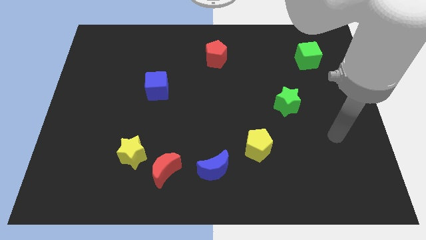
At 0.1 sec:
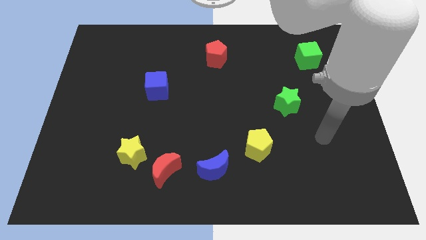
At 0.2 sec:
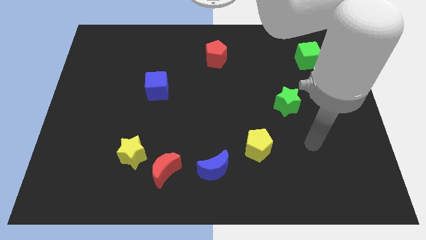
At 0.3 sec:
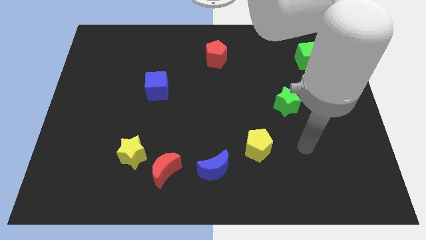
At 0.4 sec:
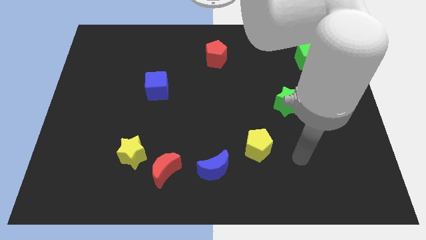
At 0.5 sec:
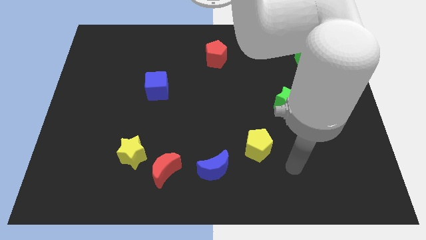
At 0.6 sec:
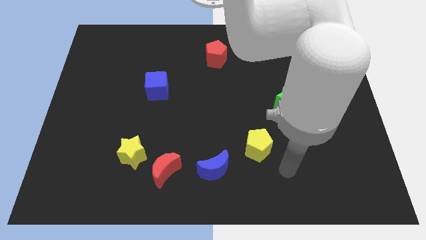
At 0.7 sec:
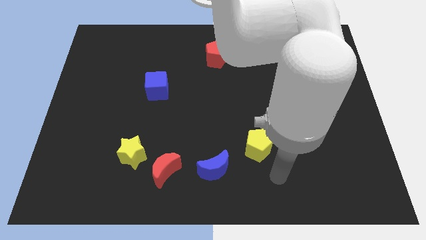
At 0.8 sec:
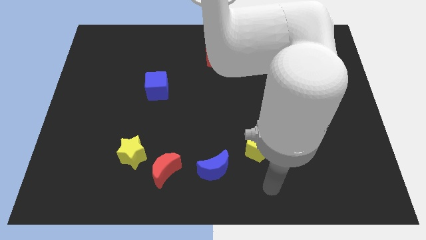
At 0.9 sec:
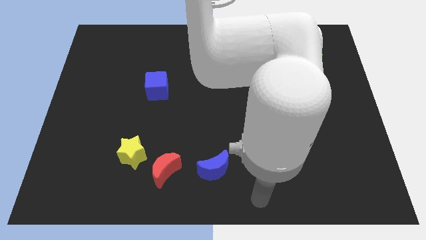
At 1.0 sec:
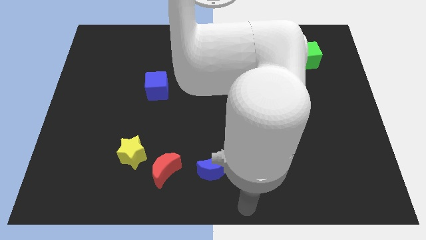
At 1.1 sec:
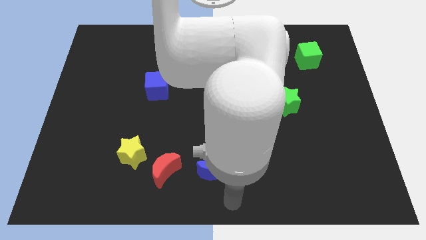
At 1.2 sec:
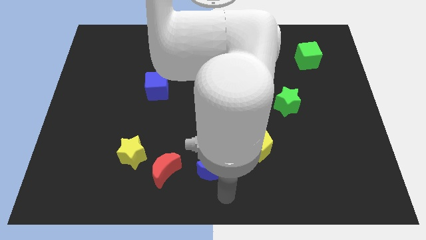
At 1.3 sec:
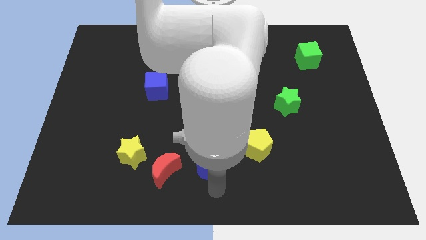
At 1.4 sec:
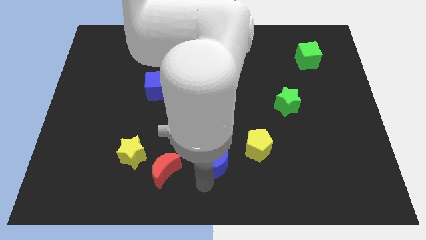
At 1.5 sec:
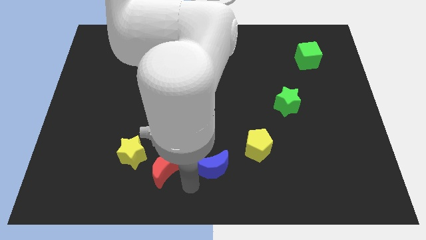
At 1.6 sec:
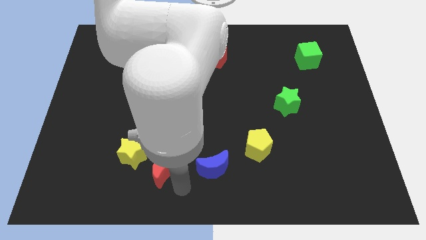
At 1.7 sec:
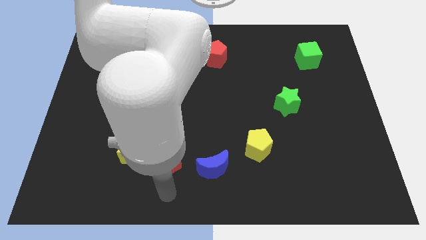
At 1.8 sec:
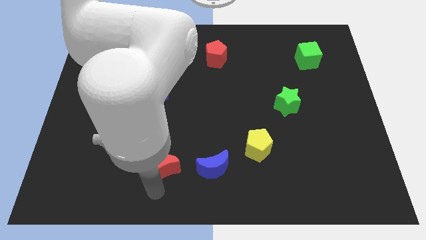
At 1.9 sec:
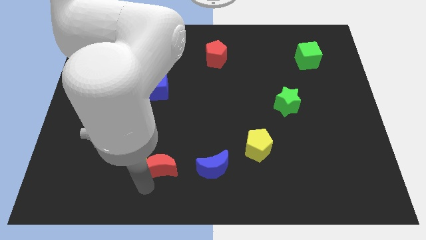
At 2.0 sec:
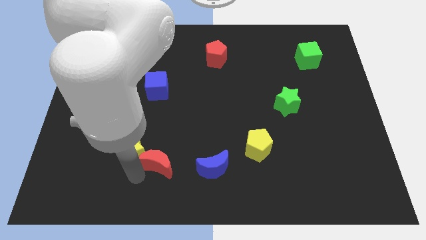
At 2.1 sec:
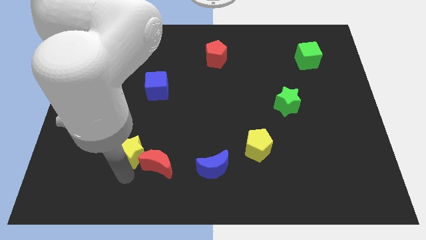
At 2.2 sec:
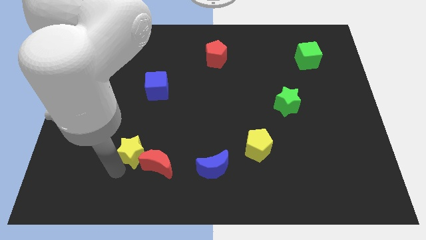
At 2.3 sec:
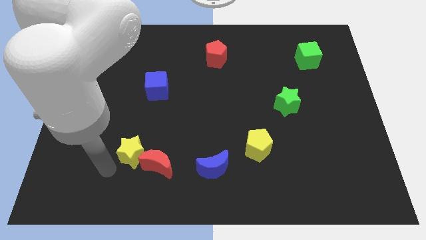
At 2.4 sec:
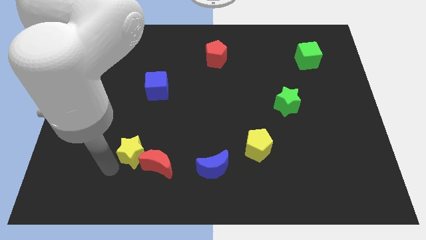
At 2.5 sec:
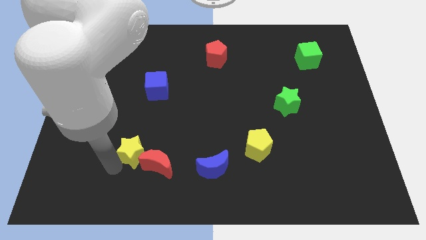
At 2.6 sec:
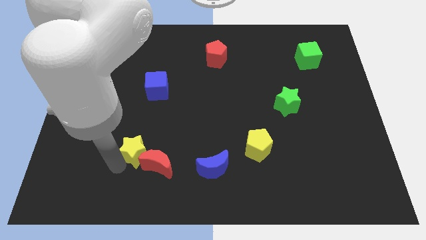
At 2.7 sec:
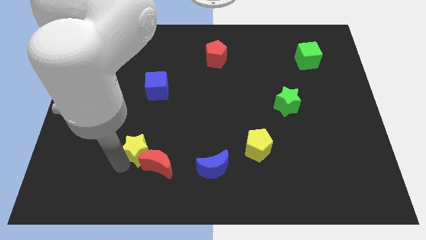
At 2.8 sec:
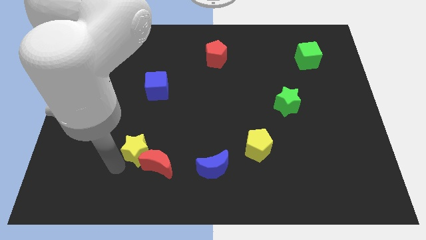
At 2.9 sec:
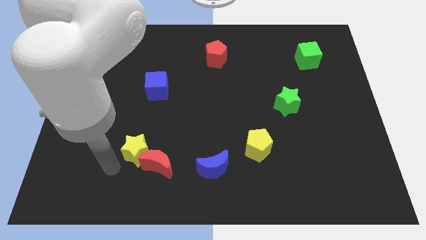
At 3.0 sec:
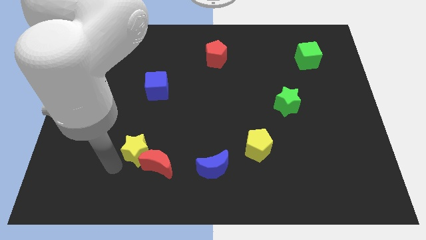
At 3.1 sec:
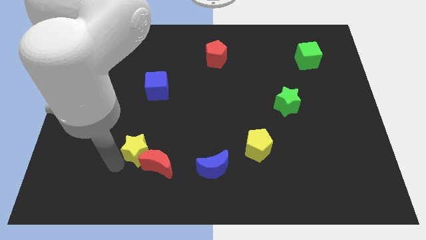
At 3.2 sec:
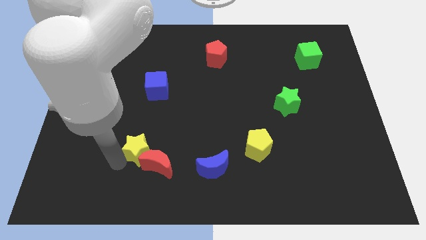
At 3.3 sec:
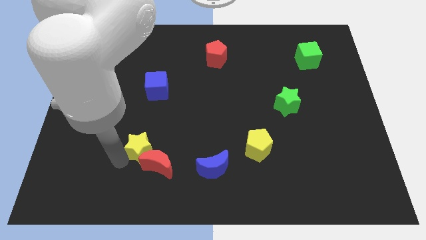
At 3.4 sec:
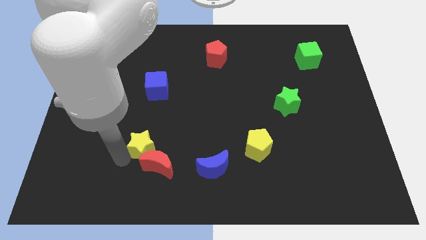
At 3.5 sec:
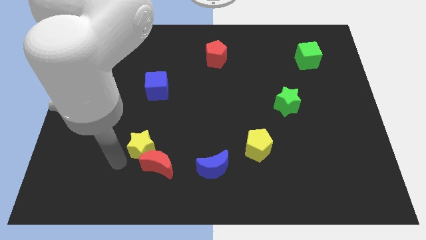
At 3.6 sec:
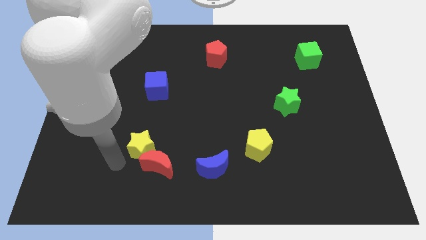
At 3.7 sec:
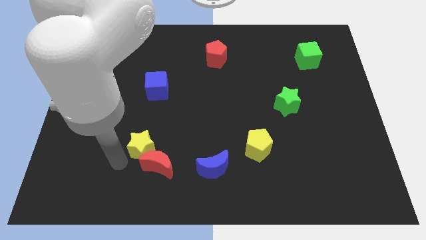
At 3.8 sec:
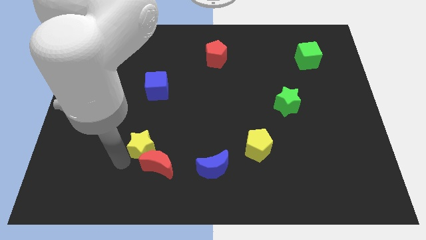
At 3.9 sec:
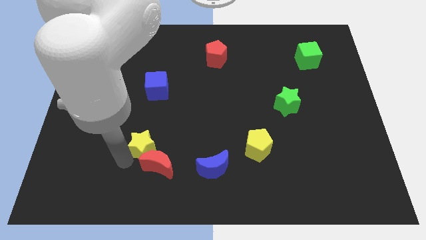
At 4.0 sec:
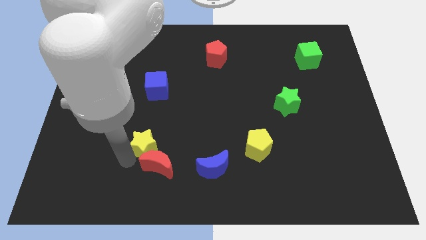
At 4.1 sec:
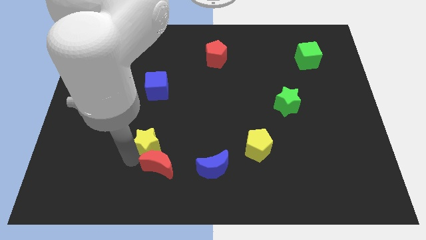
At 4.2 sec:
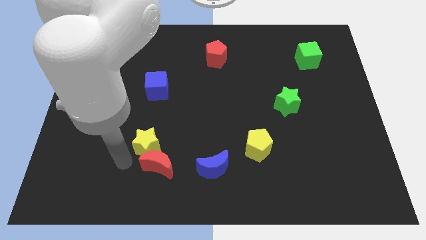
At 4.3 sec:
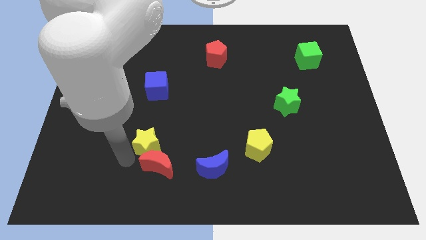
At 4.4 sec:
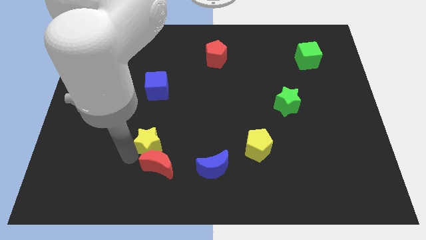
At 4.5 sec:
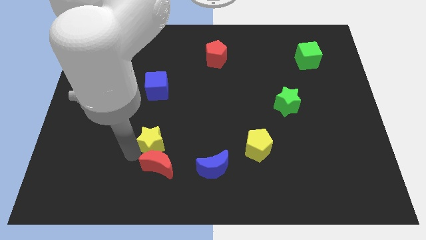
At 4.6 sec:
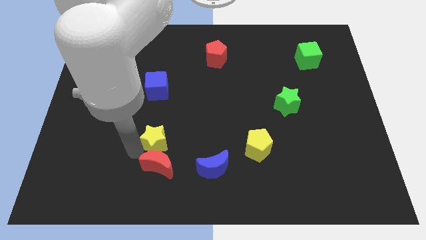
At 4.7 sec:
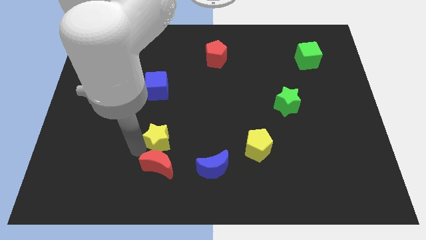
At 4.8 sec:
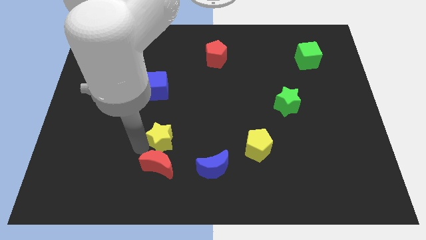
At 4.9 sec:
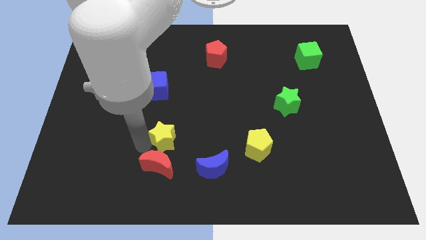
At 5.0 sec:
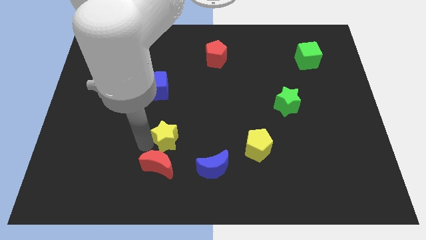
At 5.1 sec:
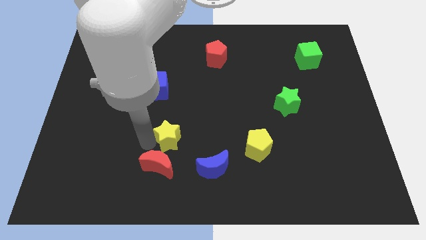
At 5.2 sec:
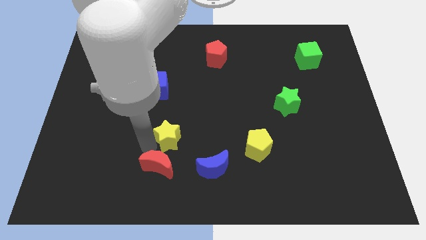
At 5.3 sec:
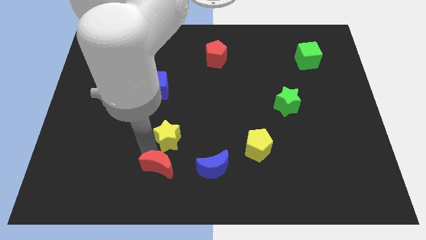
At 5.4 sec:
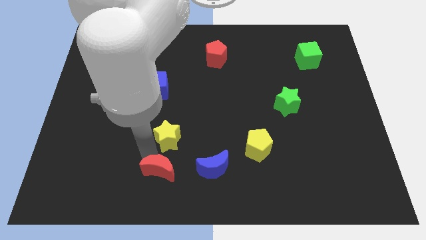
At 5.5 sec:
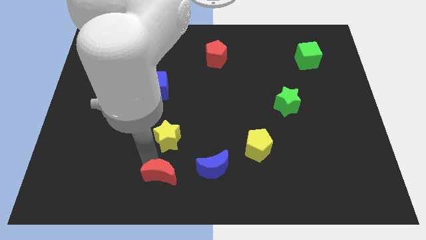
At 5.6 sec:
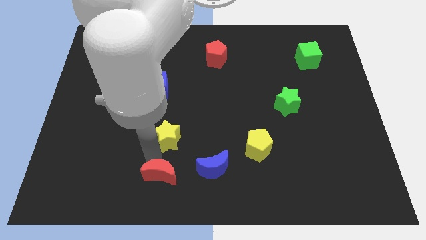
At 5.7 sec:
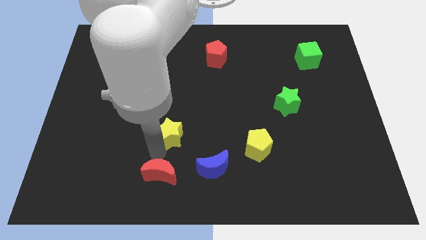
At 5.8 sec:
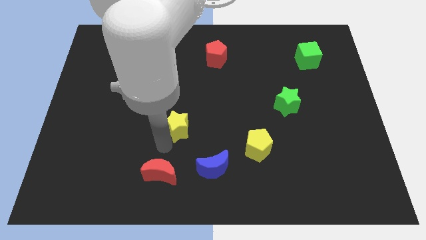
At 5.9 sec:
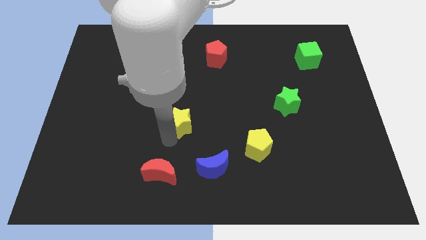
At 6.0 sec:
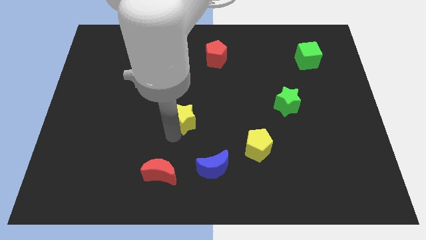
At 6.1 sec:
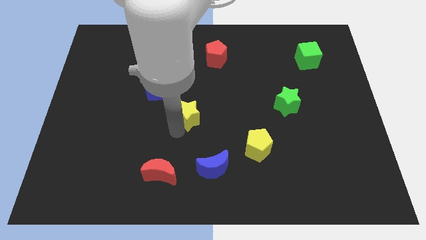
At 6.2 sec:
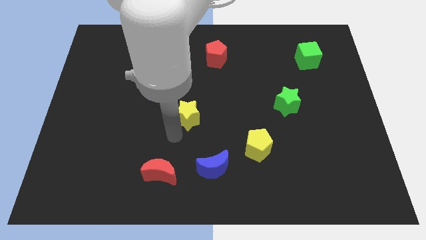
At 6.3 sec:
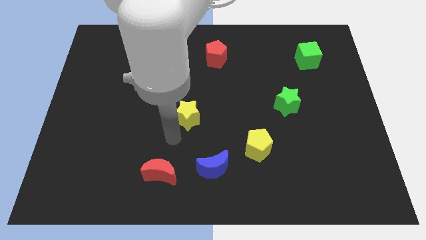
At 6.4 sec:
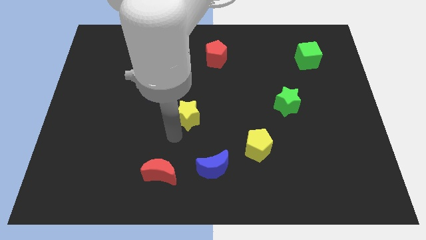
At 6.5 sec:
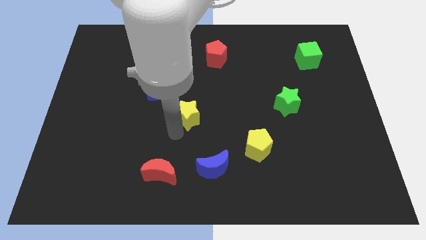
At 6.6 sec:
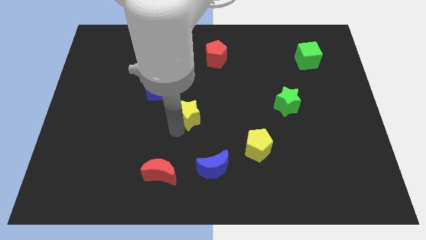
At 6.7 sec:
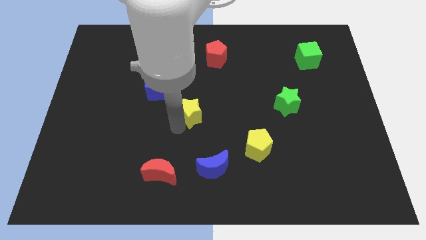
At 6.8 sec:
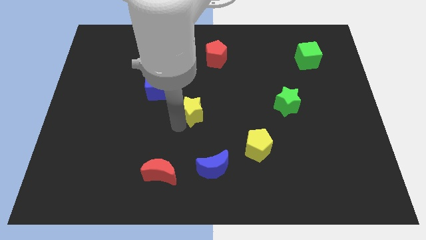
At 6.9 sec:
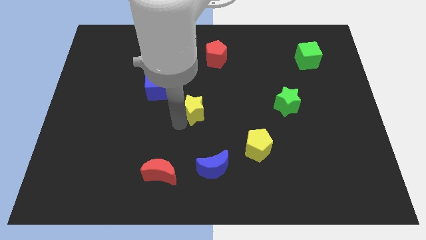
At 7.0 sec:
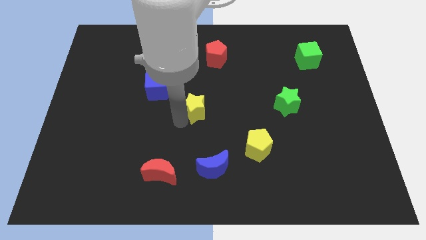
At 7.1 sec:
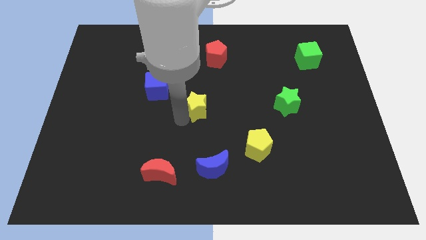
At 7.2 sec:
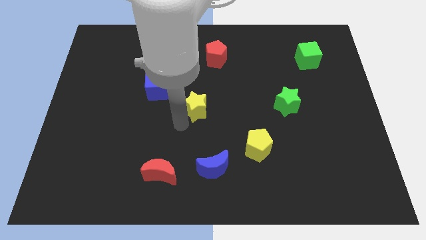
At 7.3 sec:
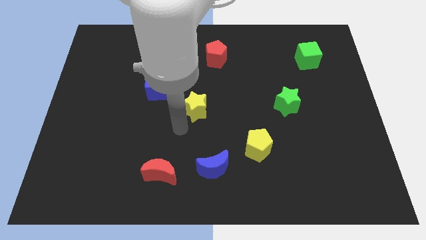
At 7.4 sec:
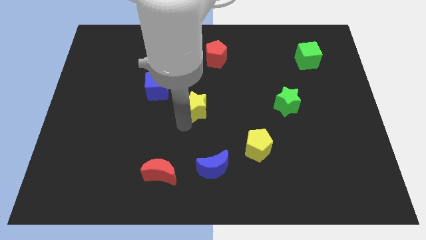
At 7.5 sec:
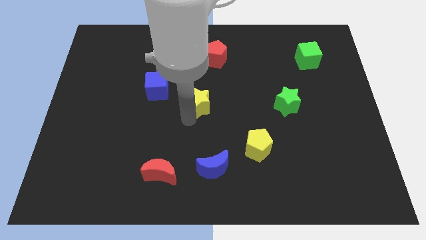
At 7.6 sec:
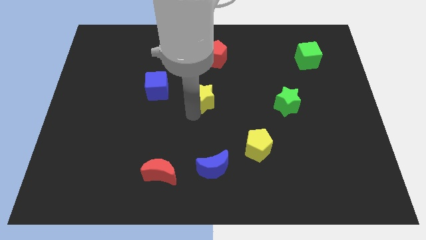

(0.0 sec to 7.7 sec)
move the yellow star diagonally upwards and right

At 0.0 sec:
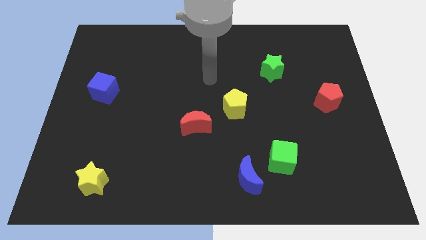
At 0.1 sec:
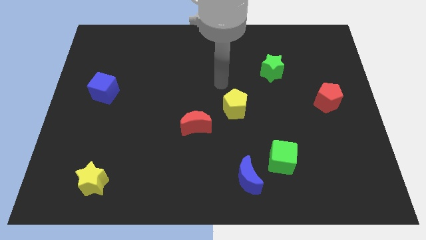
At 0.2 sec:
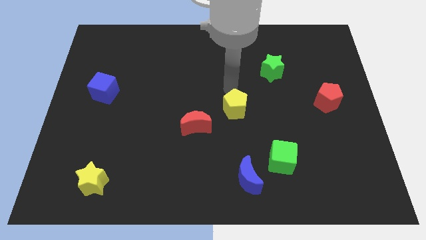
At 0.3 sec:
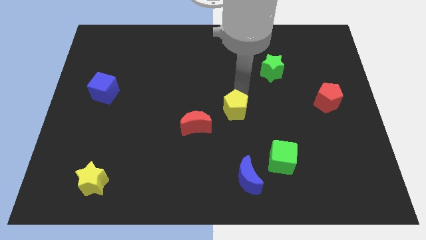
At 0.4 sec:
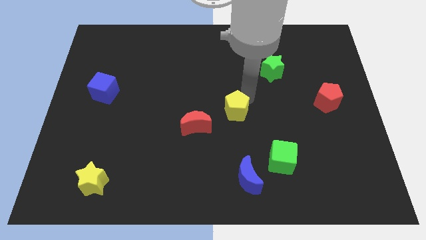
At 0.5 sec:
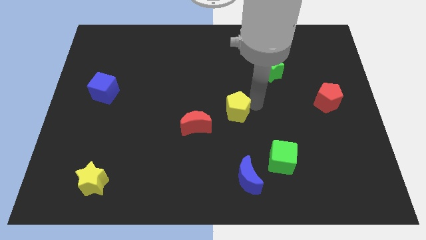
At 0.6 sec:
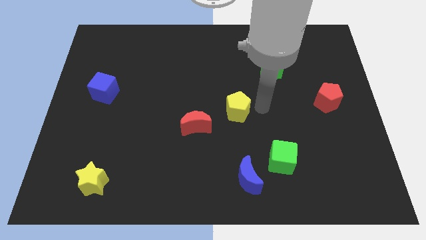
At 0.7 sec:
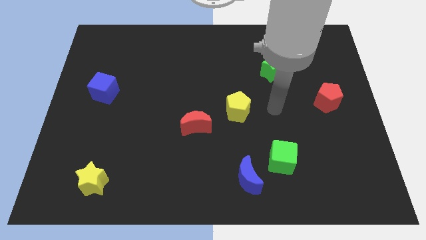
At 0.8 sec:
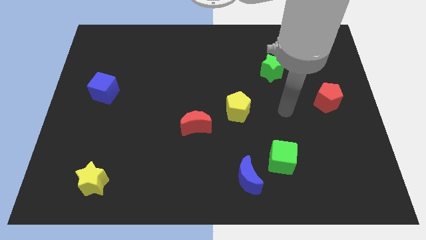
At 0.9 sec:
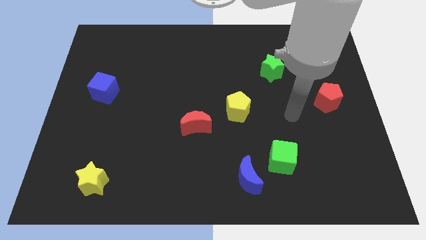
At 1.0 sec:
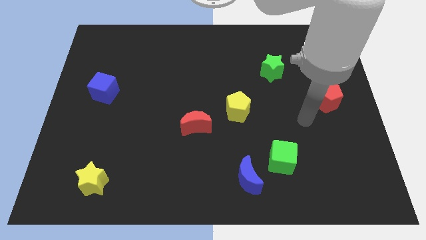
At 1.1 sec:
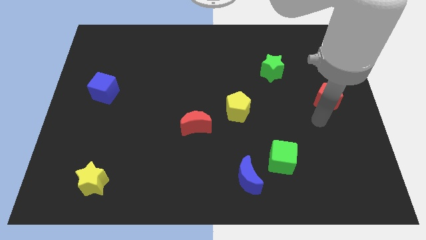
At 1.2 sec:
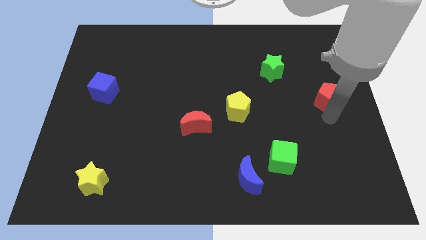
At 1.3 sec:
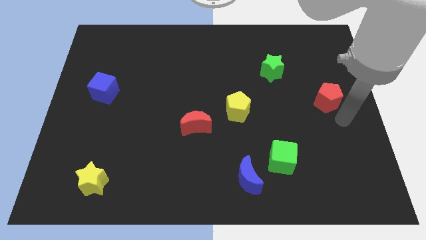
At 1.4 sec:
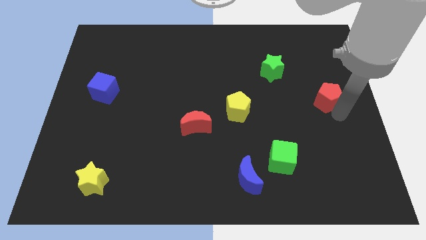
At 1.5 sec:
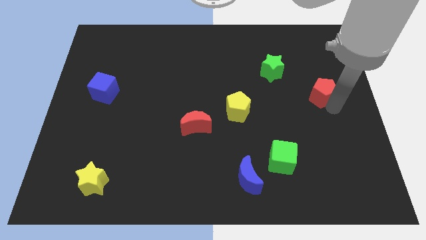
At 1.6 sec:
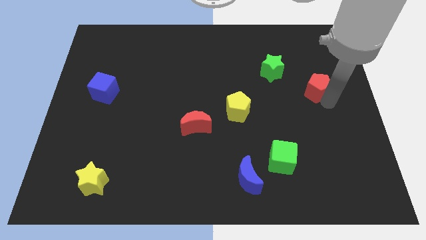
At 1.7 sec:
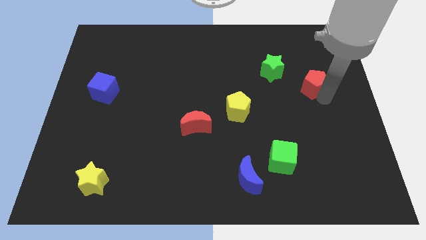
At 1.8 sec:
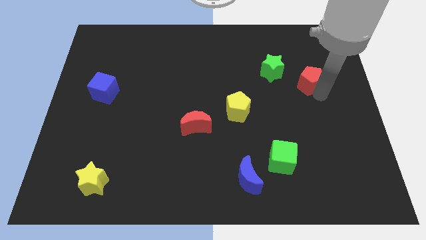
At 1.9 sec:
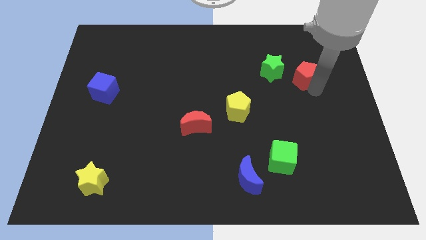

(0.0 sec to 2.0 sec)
slide the red pentagon upwards and to the left a bit
